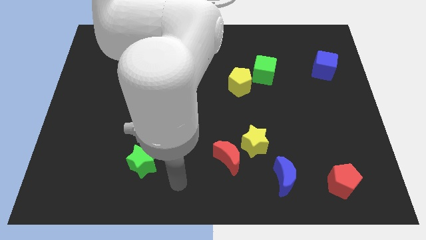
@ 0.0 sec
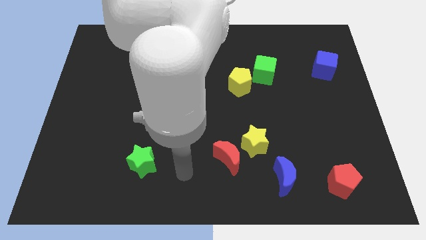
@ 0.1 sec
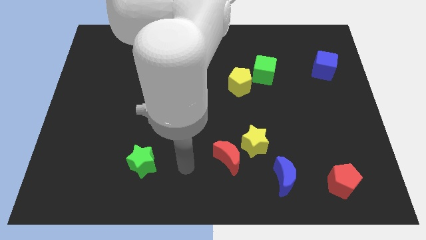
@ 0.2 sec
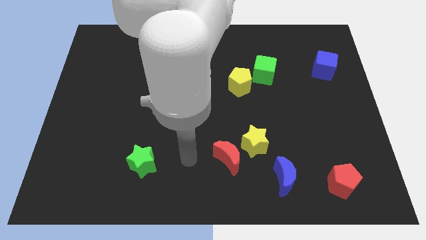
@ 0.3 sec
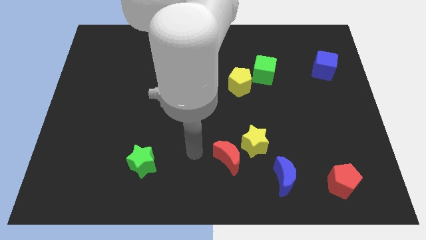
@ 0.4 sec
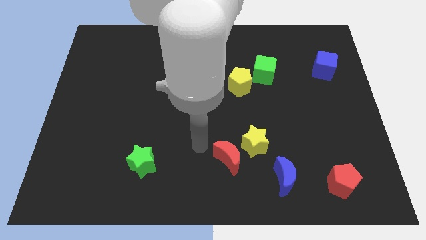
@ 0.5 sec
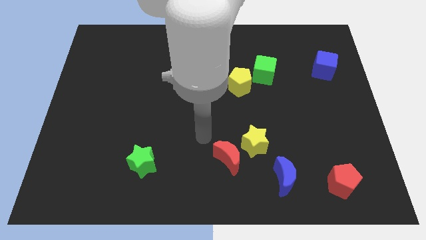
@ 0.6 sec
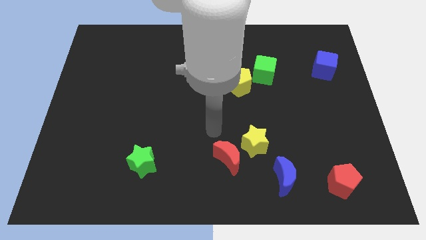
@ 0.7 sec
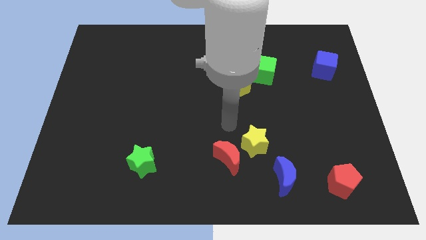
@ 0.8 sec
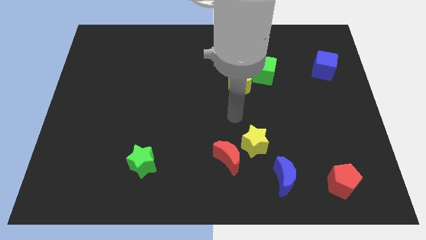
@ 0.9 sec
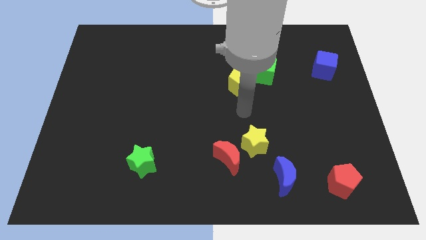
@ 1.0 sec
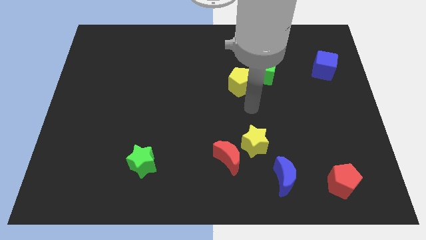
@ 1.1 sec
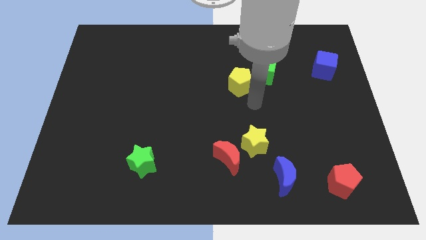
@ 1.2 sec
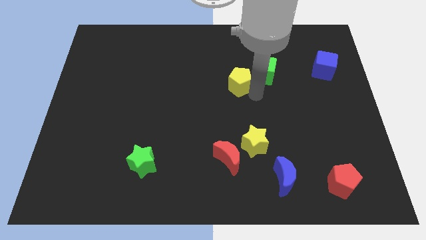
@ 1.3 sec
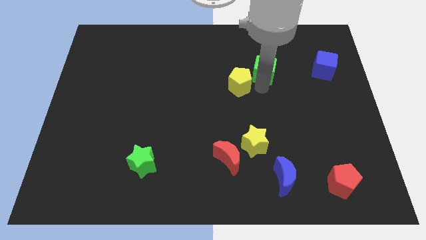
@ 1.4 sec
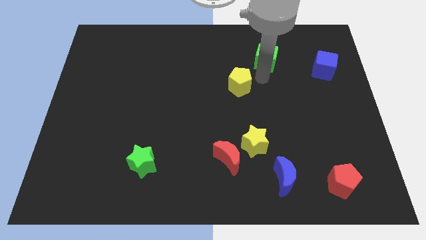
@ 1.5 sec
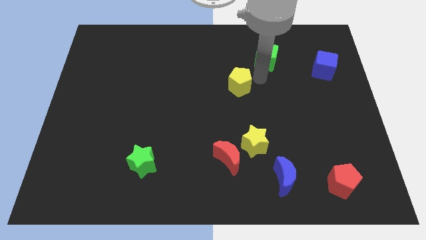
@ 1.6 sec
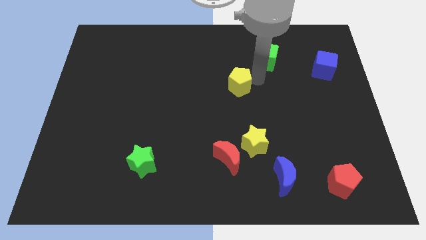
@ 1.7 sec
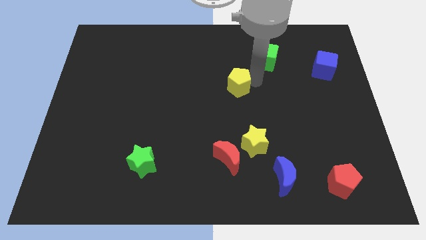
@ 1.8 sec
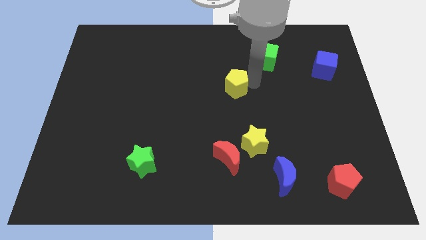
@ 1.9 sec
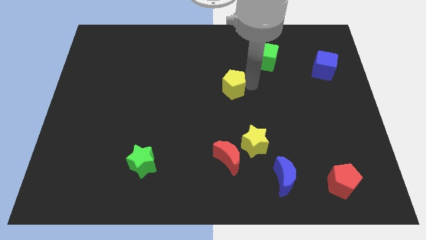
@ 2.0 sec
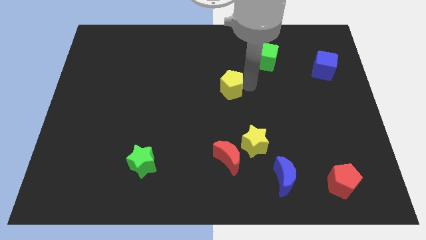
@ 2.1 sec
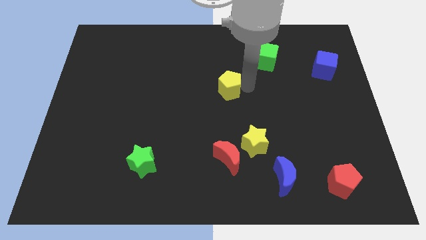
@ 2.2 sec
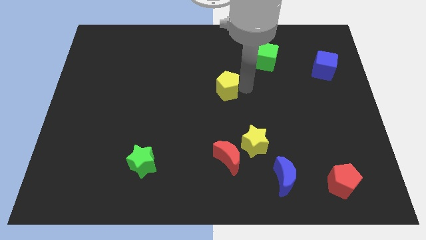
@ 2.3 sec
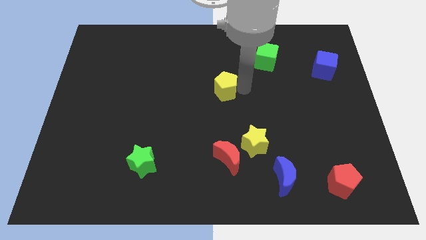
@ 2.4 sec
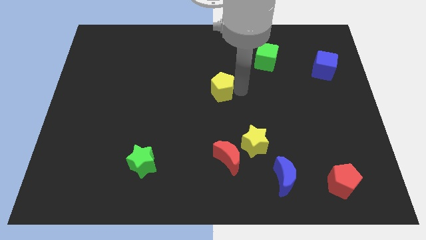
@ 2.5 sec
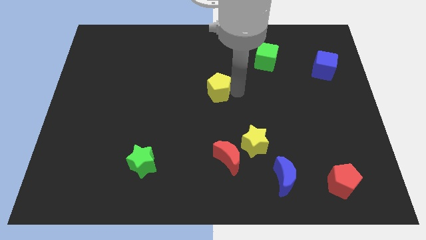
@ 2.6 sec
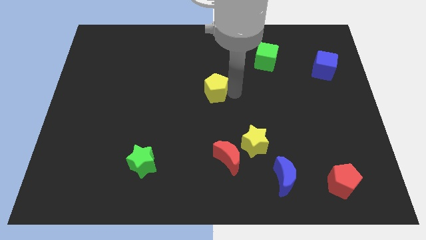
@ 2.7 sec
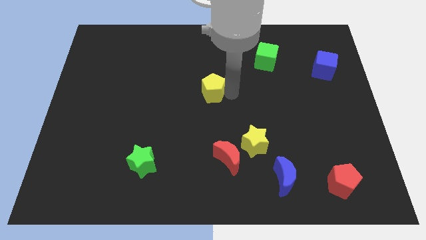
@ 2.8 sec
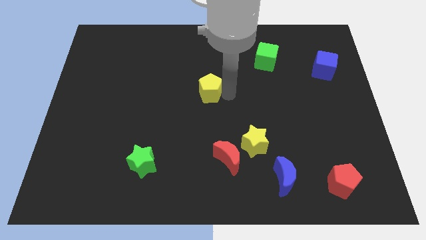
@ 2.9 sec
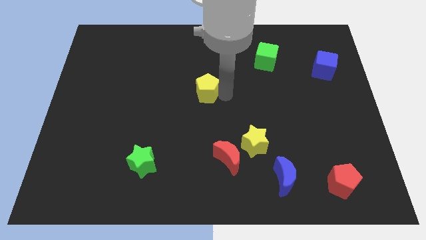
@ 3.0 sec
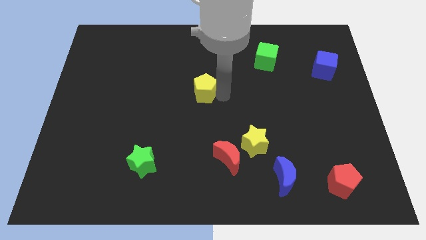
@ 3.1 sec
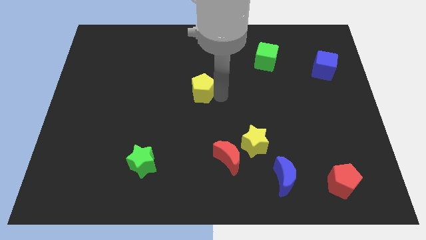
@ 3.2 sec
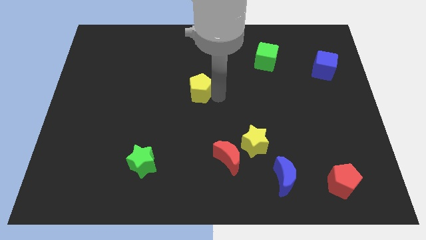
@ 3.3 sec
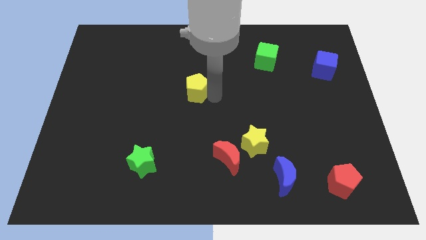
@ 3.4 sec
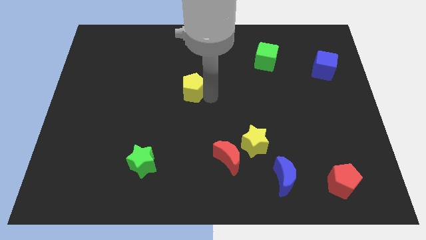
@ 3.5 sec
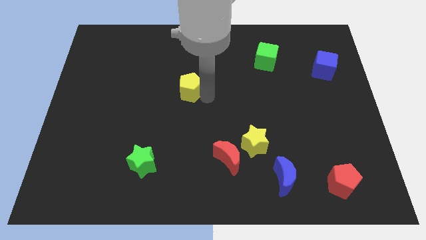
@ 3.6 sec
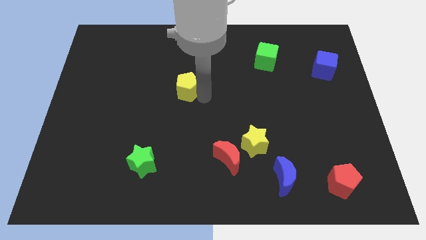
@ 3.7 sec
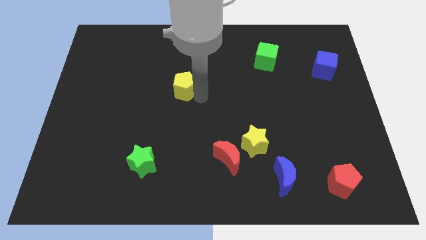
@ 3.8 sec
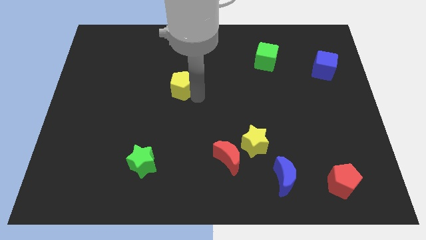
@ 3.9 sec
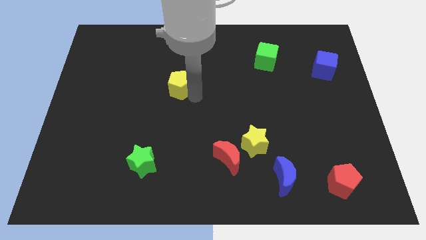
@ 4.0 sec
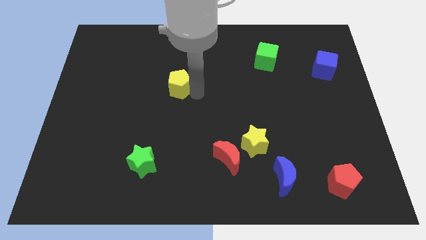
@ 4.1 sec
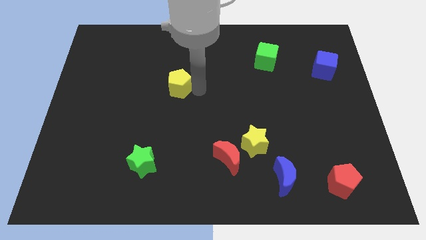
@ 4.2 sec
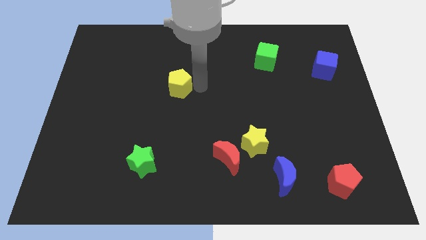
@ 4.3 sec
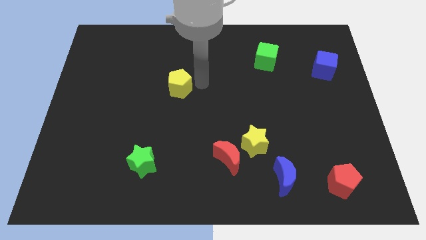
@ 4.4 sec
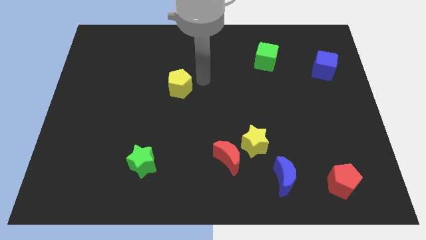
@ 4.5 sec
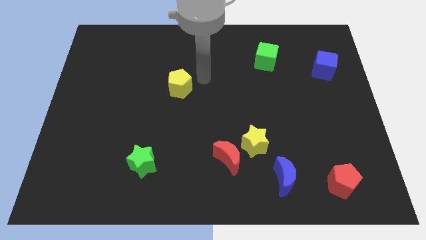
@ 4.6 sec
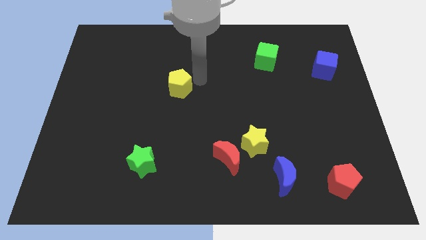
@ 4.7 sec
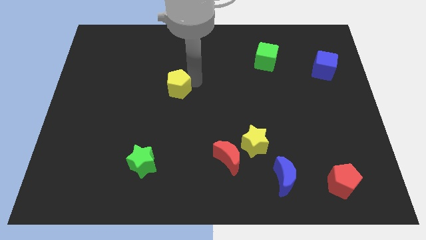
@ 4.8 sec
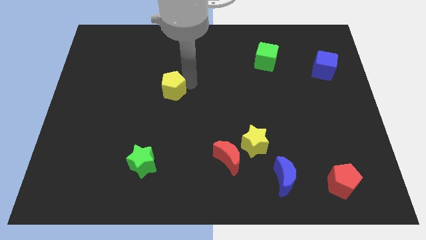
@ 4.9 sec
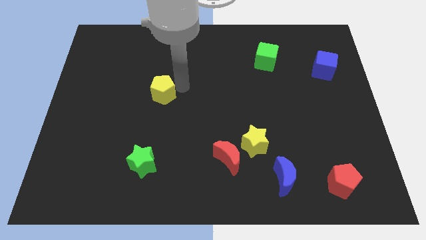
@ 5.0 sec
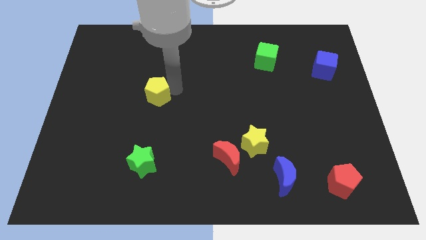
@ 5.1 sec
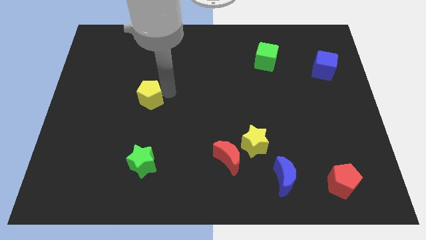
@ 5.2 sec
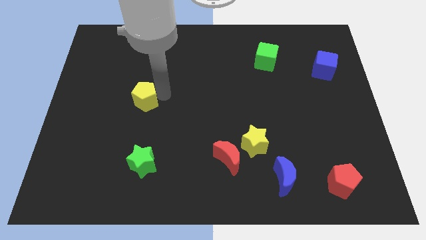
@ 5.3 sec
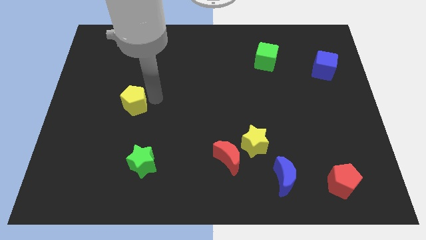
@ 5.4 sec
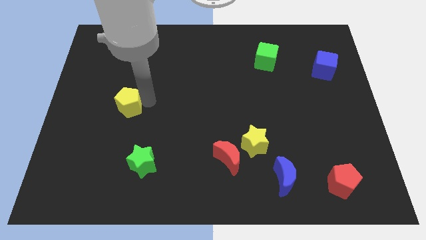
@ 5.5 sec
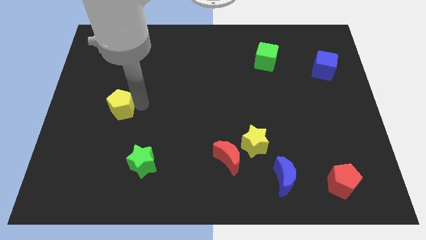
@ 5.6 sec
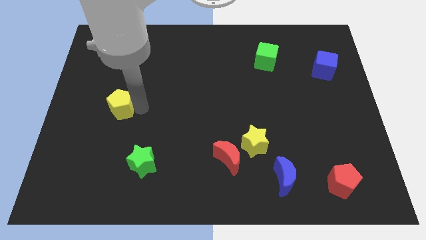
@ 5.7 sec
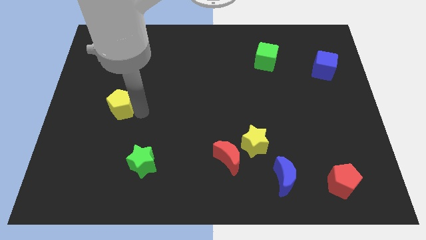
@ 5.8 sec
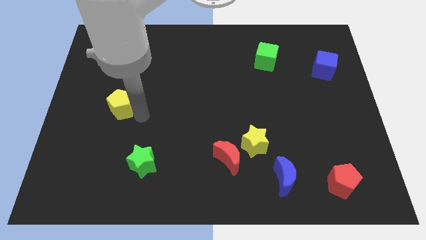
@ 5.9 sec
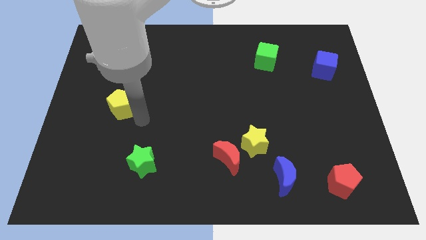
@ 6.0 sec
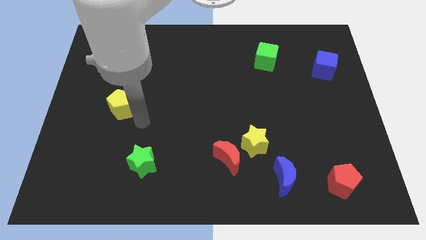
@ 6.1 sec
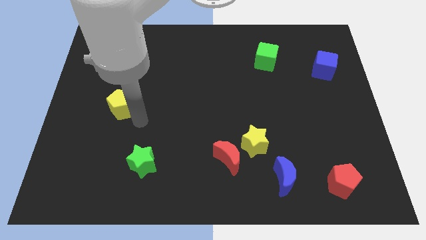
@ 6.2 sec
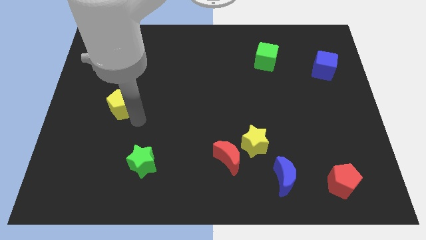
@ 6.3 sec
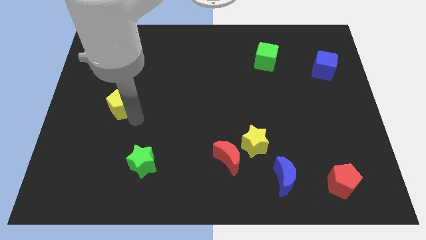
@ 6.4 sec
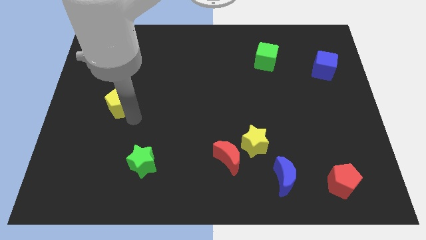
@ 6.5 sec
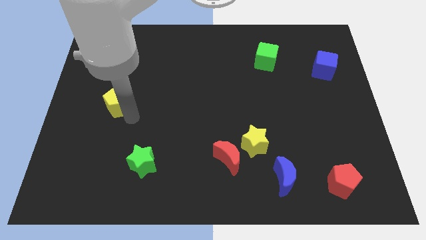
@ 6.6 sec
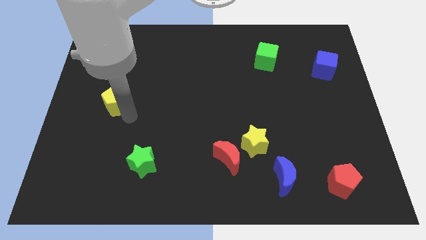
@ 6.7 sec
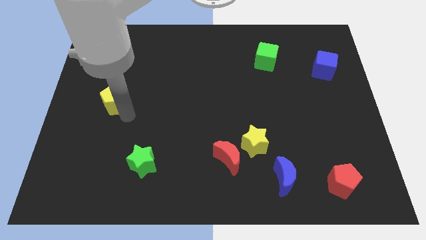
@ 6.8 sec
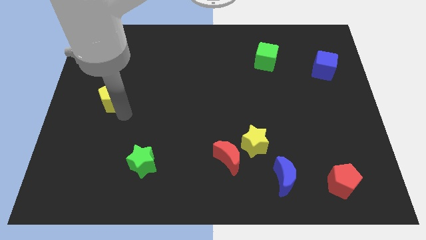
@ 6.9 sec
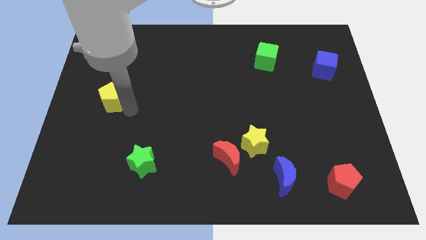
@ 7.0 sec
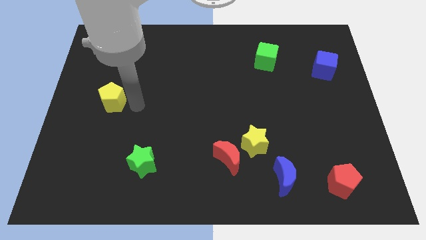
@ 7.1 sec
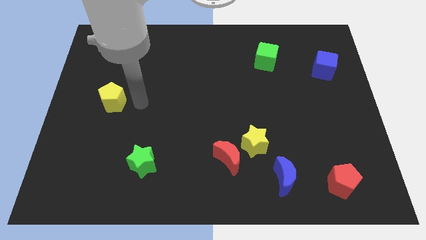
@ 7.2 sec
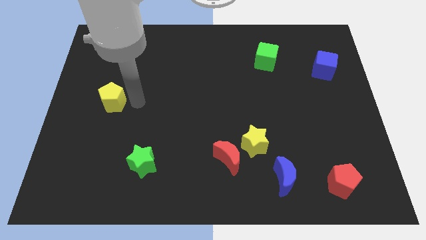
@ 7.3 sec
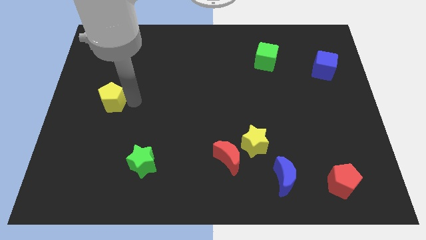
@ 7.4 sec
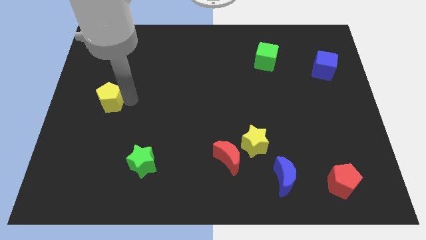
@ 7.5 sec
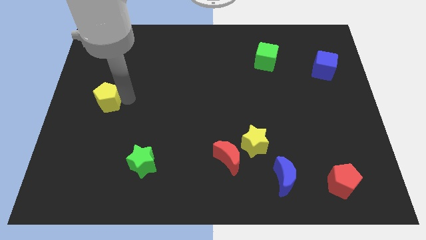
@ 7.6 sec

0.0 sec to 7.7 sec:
push the yellow pentagon to the center left
